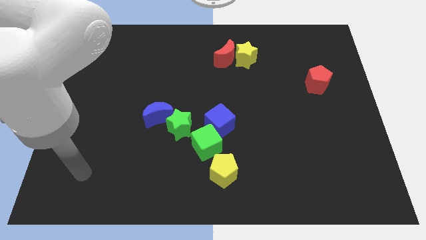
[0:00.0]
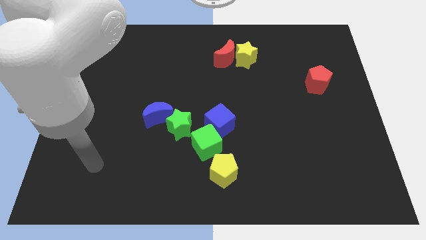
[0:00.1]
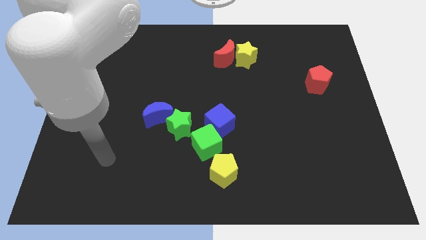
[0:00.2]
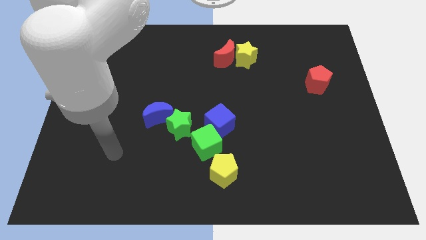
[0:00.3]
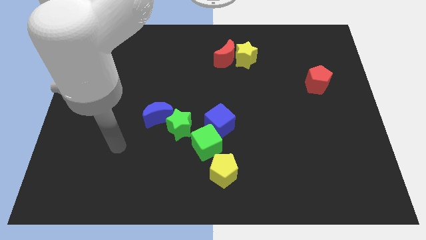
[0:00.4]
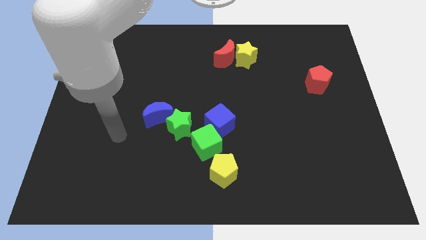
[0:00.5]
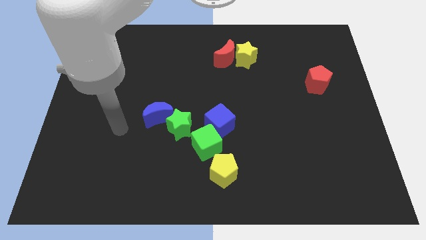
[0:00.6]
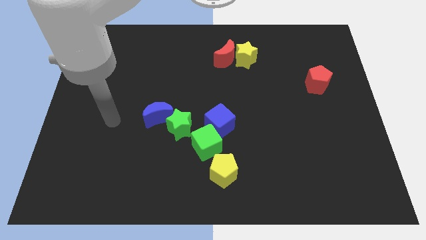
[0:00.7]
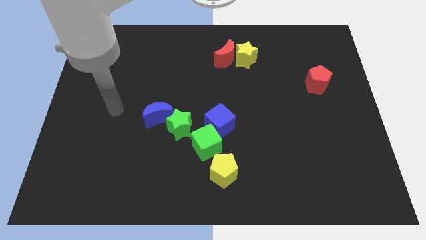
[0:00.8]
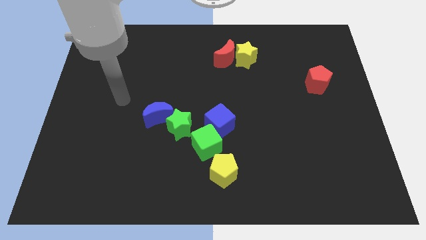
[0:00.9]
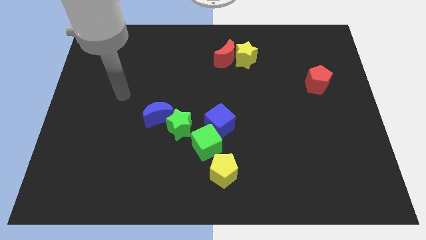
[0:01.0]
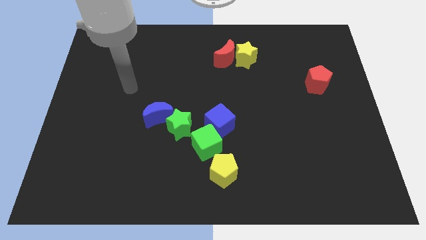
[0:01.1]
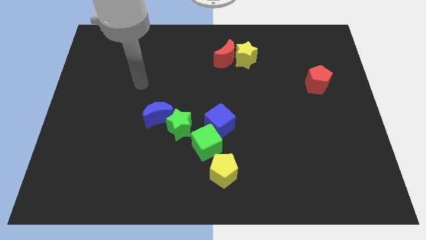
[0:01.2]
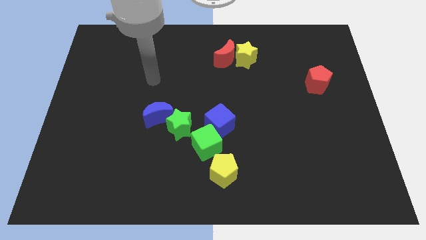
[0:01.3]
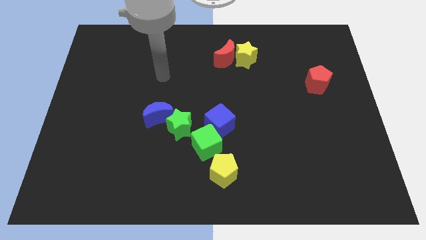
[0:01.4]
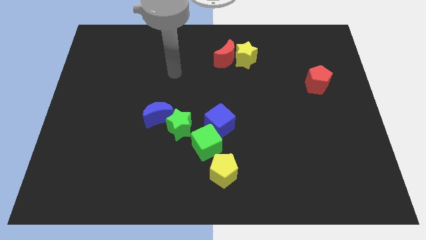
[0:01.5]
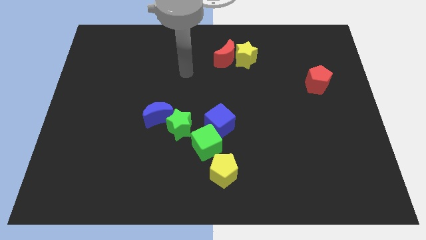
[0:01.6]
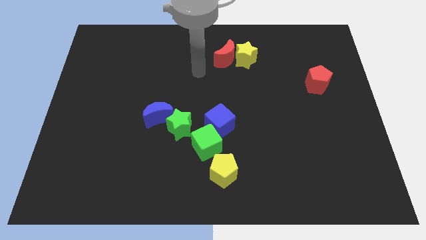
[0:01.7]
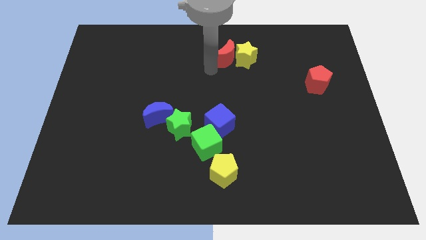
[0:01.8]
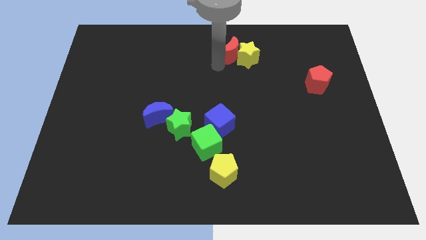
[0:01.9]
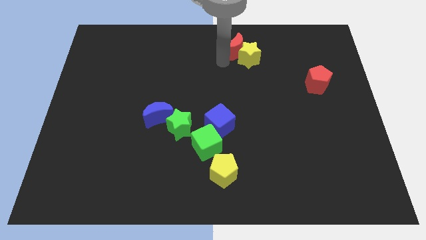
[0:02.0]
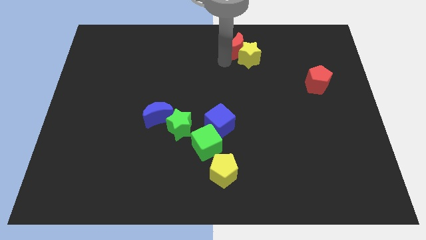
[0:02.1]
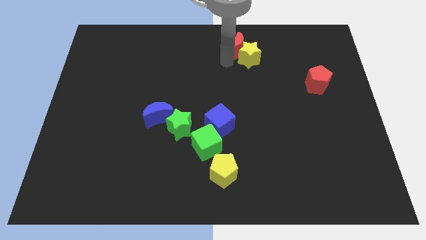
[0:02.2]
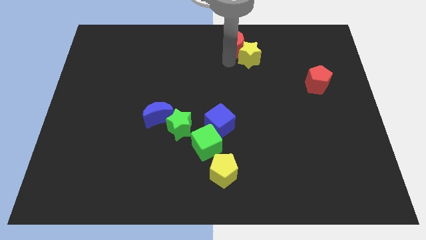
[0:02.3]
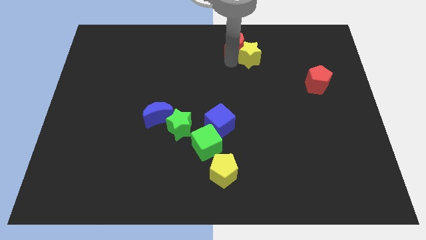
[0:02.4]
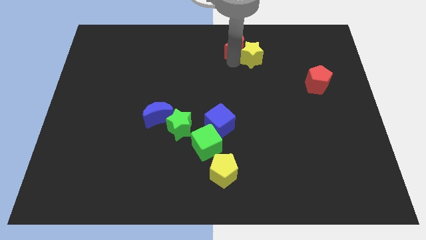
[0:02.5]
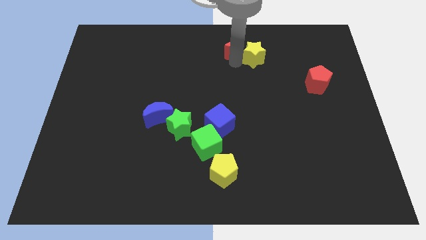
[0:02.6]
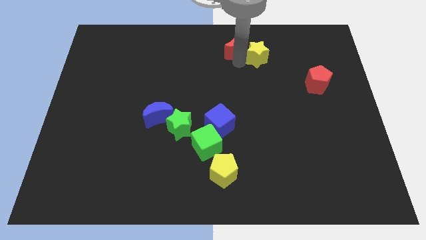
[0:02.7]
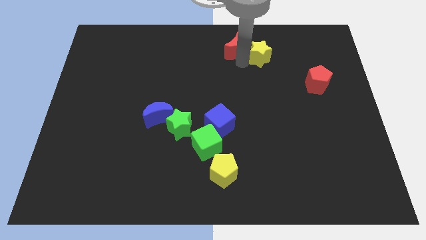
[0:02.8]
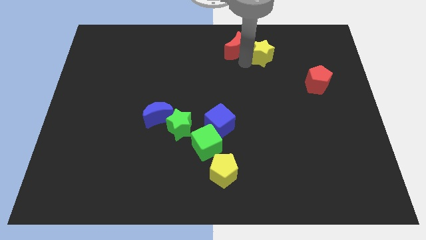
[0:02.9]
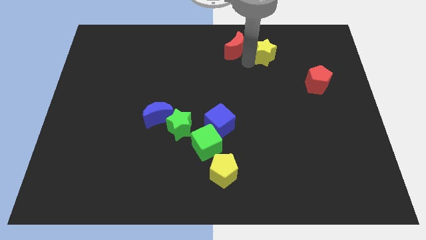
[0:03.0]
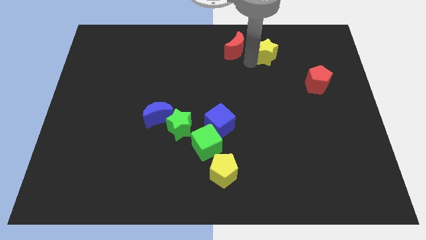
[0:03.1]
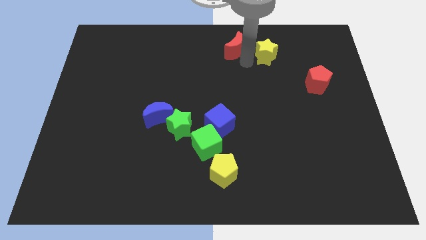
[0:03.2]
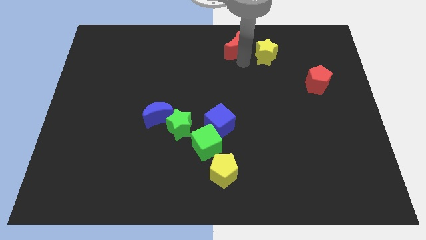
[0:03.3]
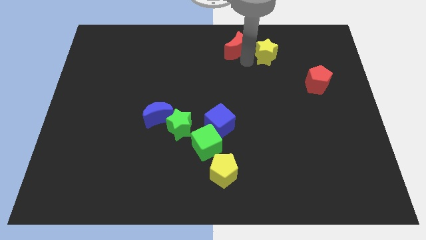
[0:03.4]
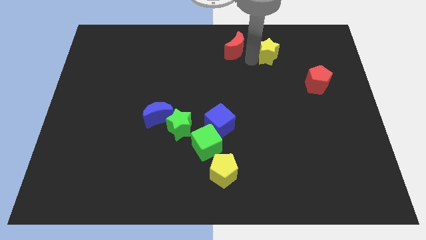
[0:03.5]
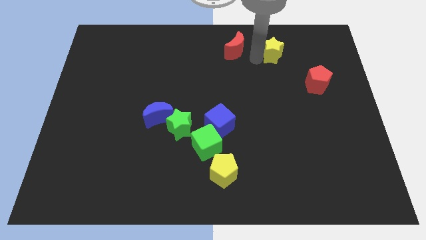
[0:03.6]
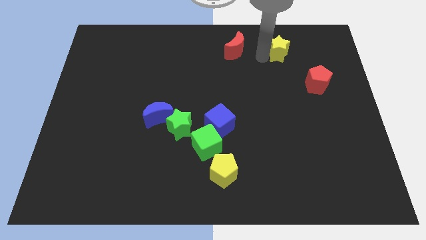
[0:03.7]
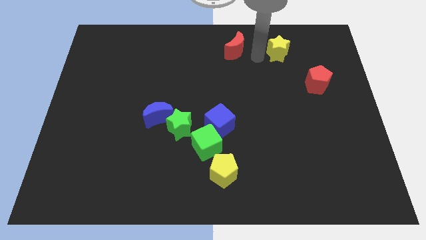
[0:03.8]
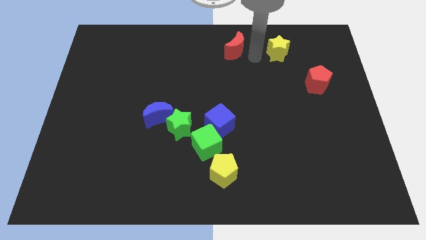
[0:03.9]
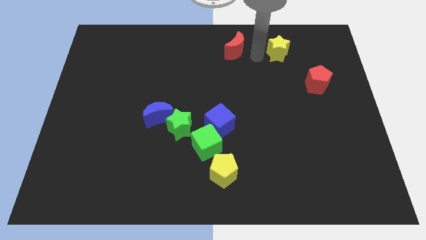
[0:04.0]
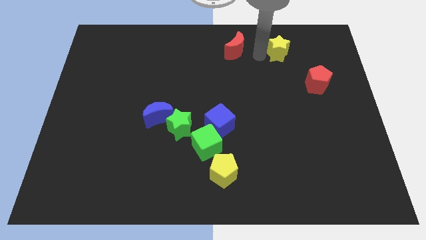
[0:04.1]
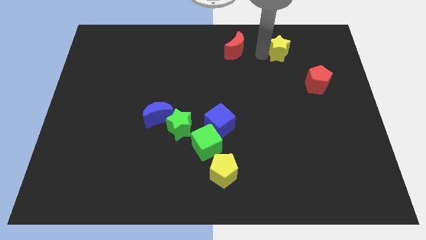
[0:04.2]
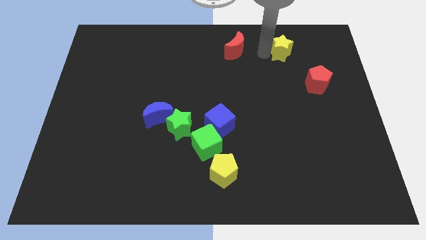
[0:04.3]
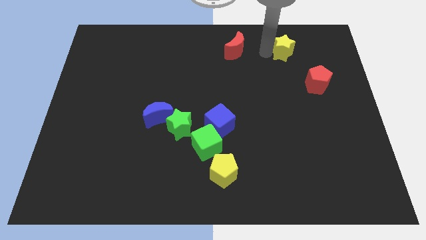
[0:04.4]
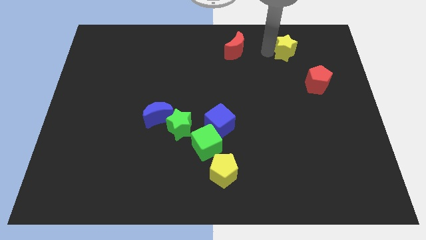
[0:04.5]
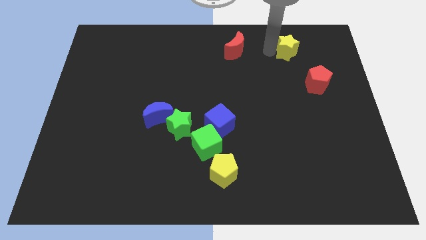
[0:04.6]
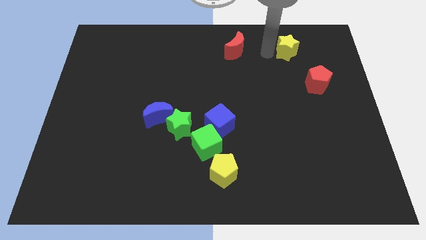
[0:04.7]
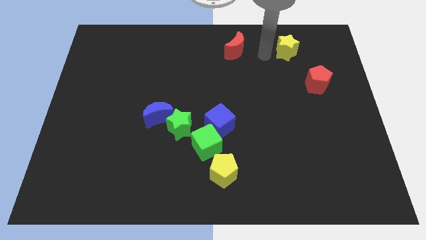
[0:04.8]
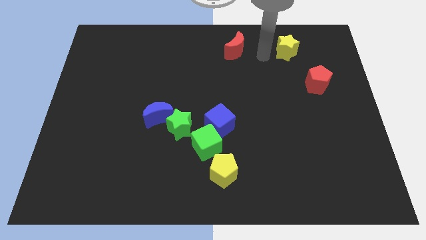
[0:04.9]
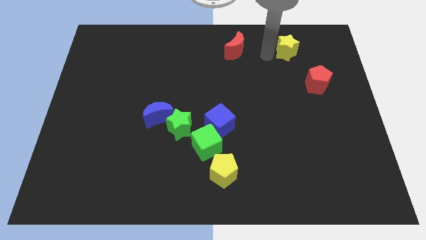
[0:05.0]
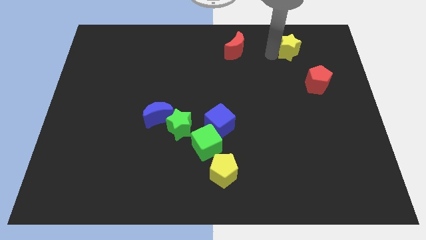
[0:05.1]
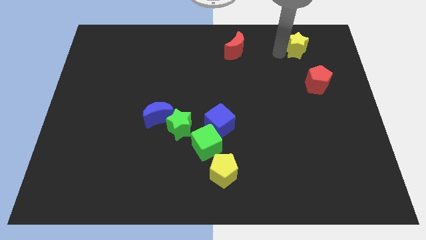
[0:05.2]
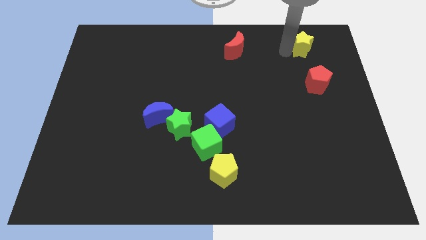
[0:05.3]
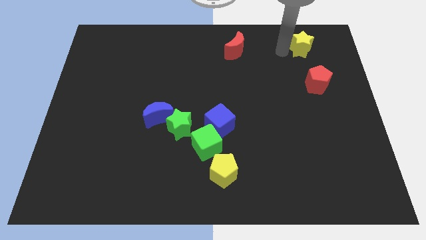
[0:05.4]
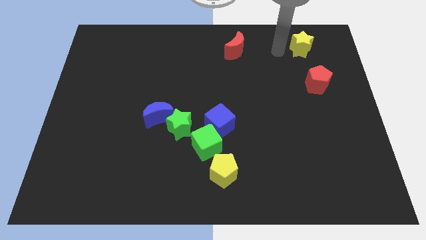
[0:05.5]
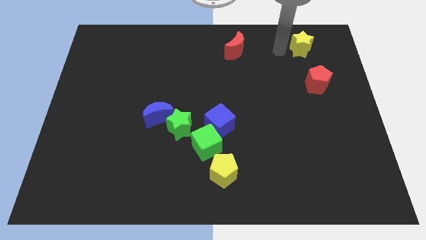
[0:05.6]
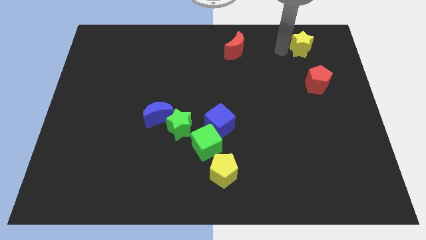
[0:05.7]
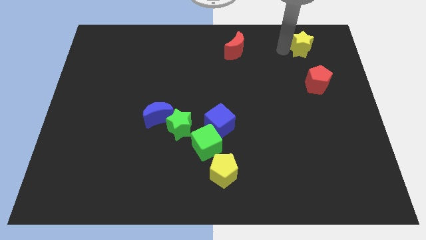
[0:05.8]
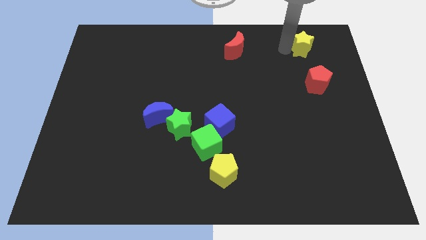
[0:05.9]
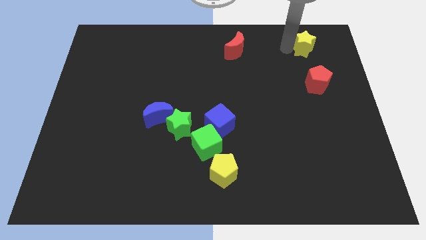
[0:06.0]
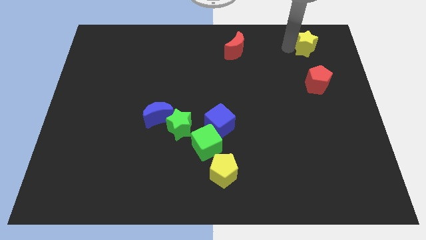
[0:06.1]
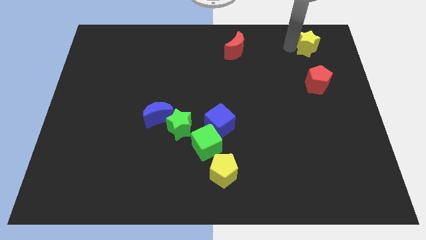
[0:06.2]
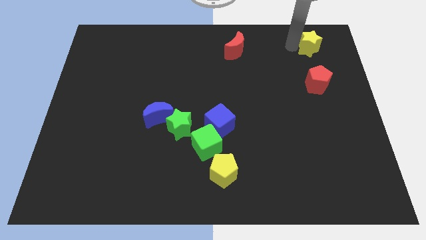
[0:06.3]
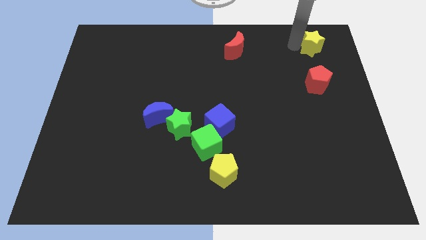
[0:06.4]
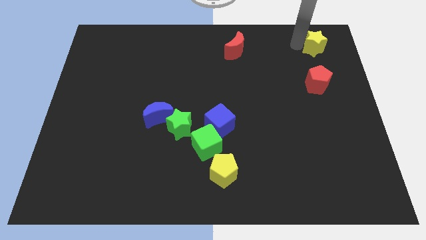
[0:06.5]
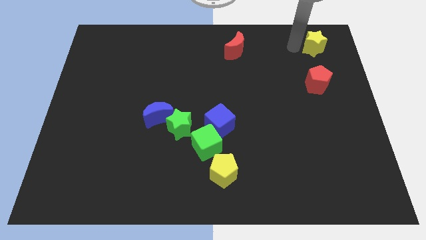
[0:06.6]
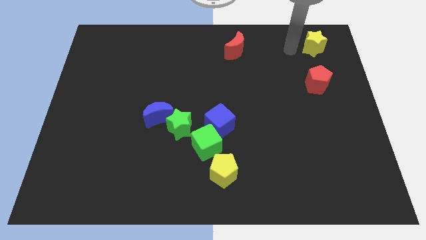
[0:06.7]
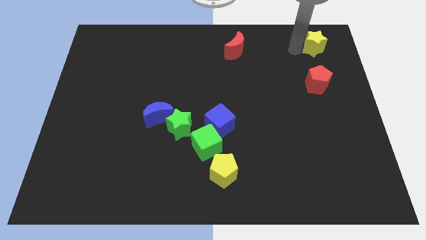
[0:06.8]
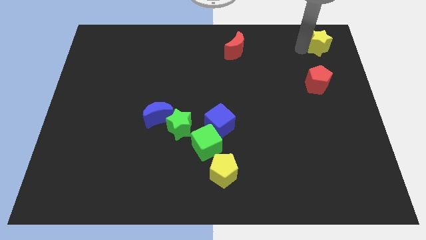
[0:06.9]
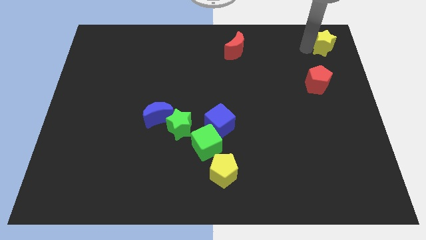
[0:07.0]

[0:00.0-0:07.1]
push the yellow star to the top right of the board

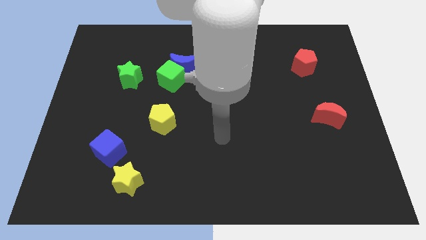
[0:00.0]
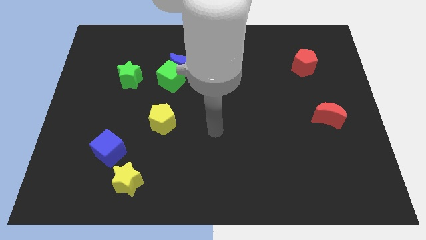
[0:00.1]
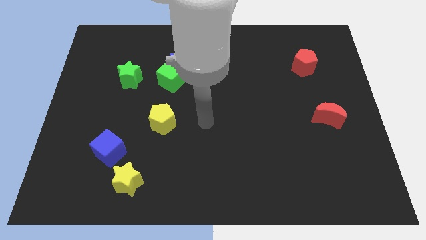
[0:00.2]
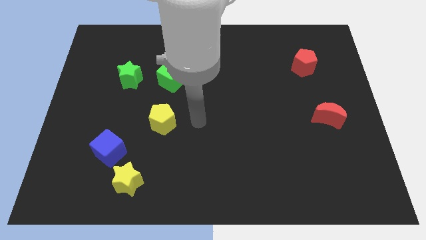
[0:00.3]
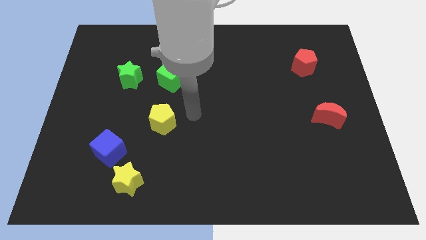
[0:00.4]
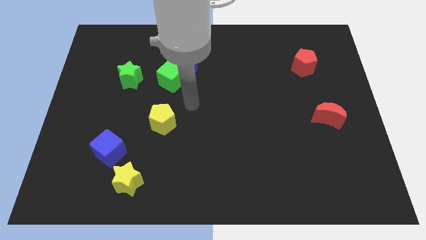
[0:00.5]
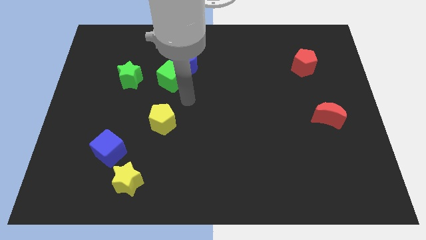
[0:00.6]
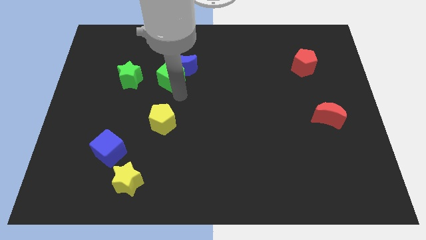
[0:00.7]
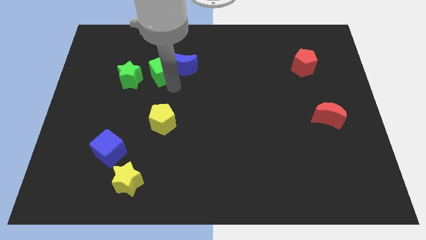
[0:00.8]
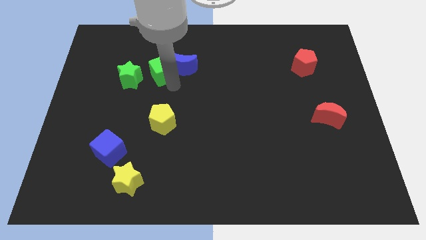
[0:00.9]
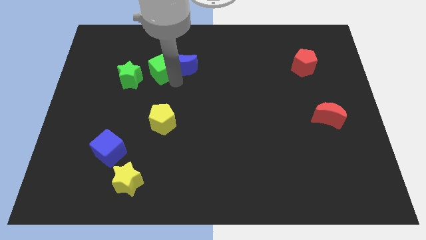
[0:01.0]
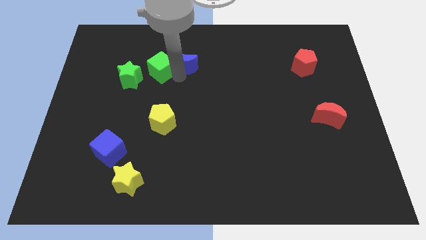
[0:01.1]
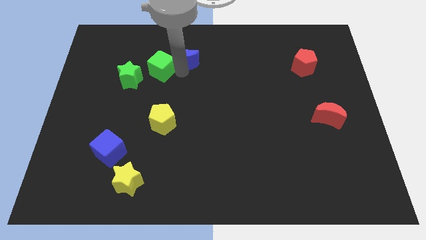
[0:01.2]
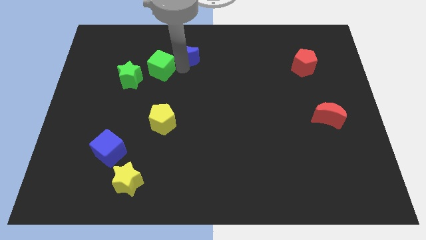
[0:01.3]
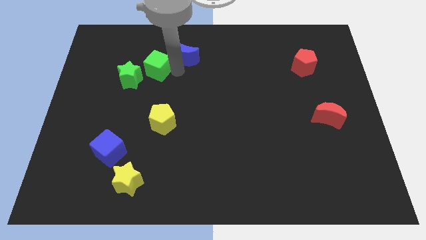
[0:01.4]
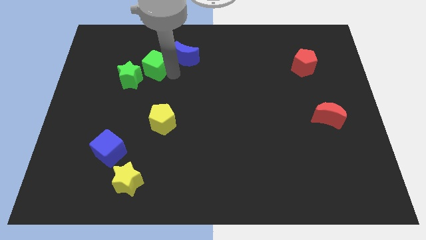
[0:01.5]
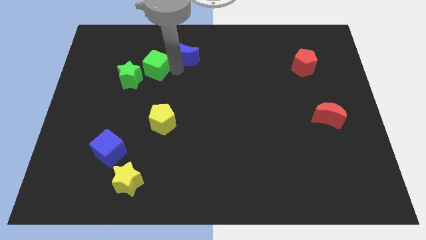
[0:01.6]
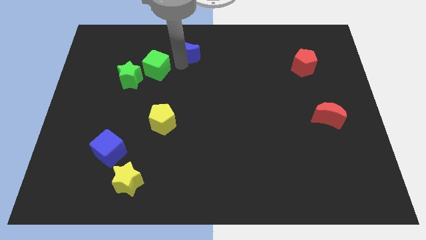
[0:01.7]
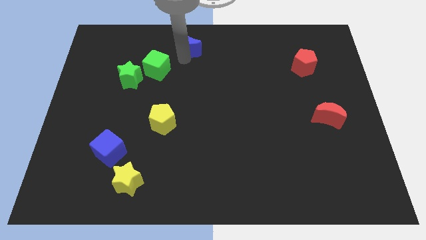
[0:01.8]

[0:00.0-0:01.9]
put the blue moon to the top
